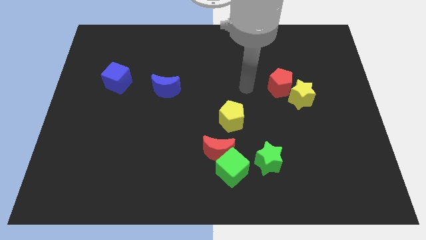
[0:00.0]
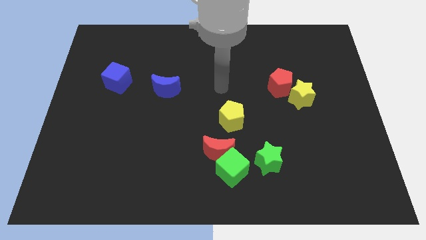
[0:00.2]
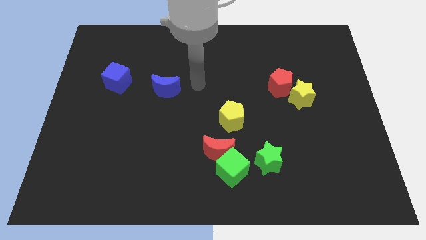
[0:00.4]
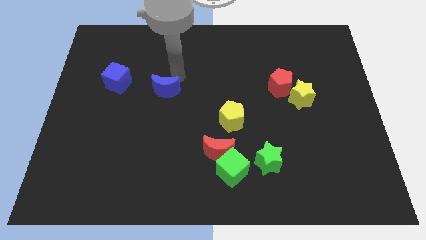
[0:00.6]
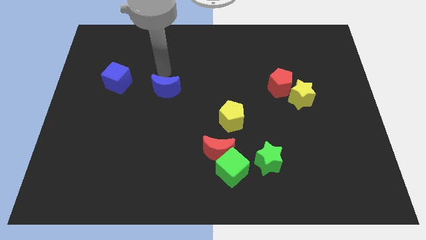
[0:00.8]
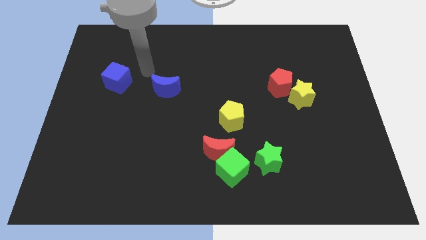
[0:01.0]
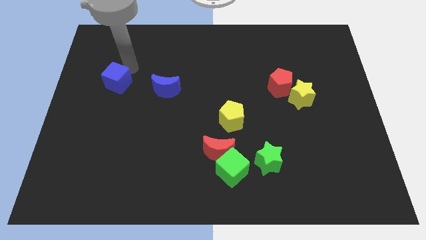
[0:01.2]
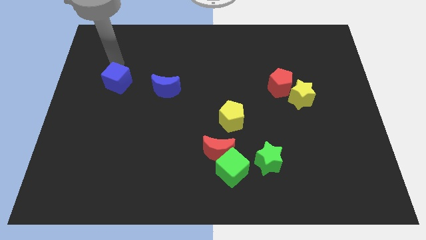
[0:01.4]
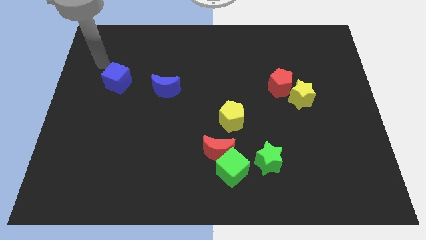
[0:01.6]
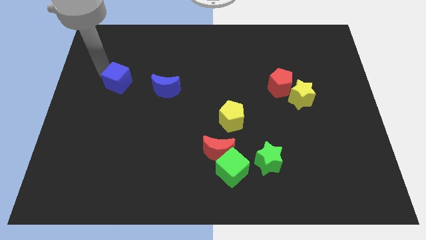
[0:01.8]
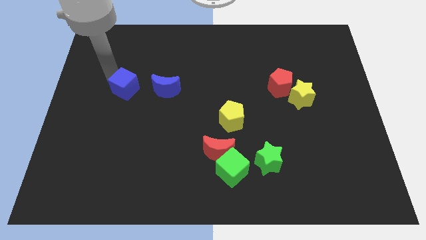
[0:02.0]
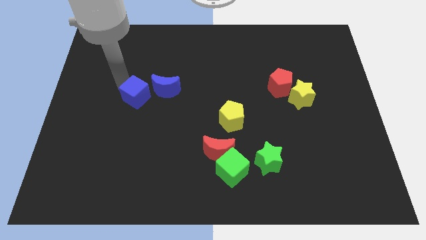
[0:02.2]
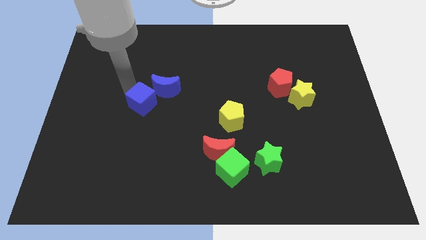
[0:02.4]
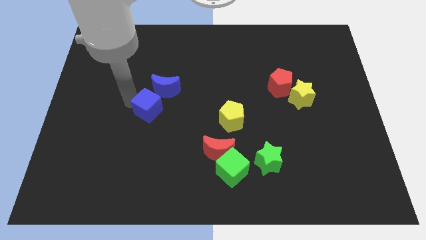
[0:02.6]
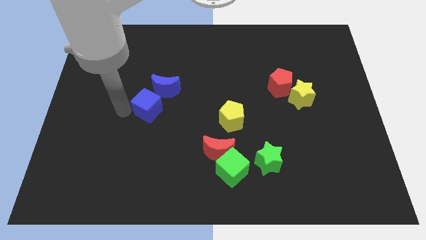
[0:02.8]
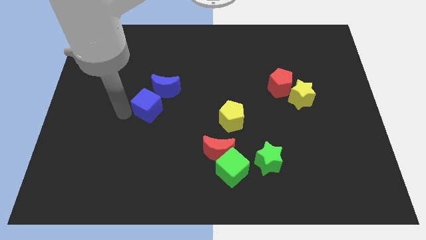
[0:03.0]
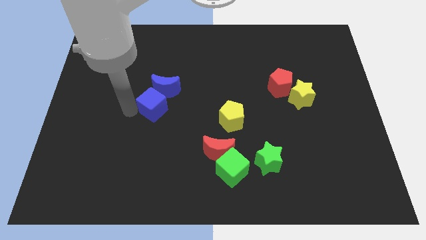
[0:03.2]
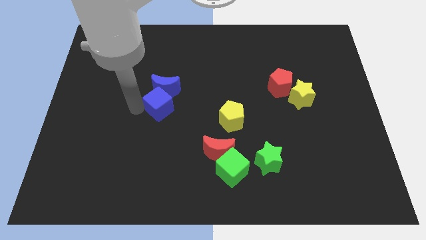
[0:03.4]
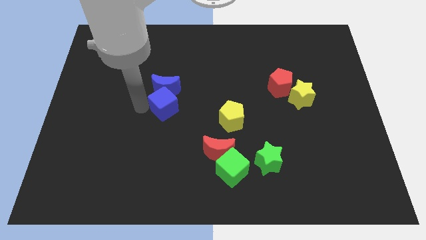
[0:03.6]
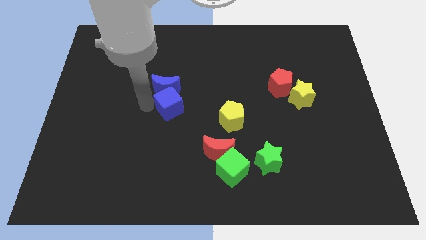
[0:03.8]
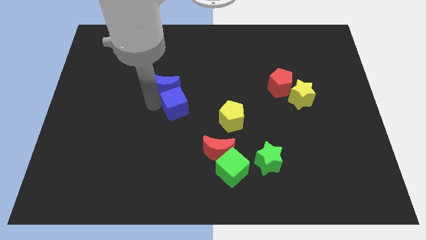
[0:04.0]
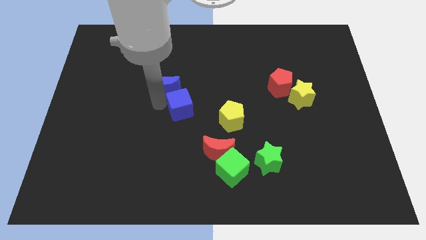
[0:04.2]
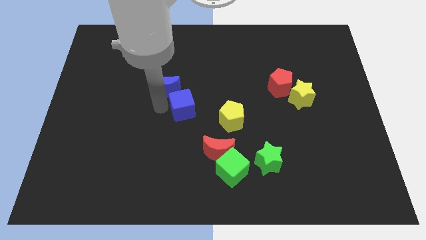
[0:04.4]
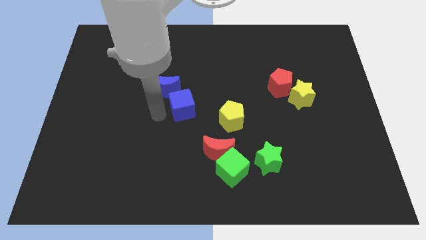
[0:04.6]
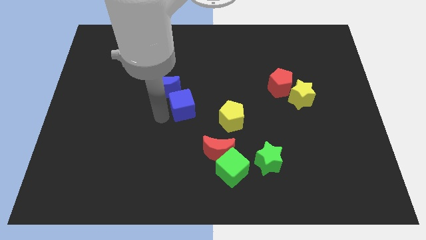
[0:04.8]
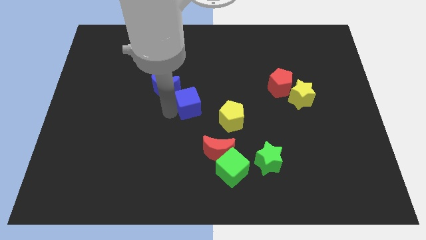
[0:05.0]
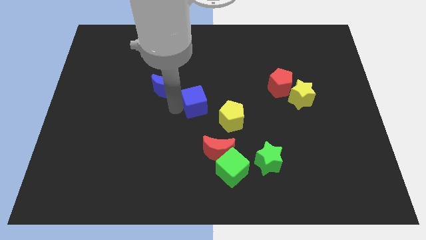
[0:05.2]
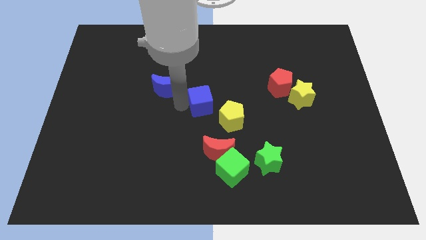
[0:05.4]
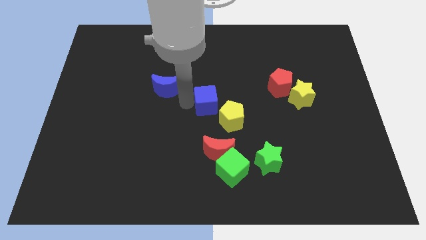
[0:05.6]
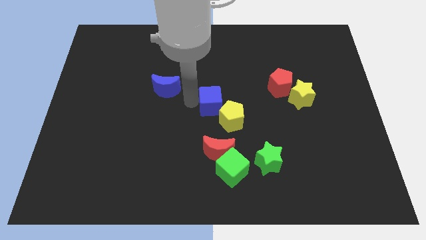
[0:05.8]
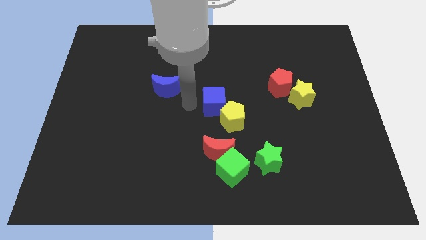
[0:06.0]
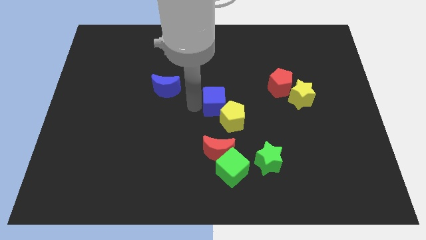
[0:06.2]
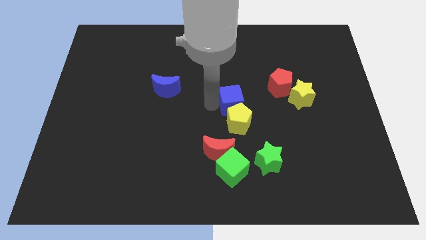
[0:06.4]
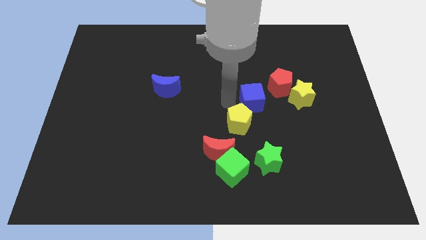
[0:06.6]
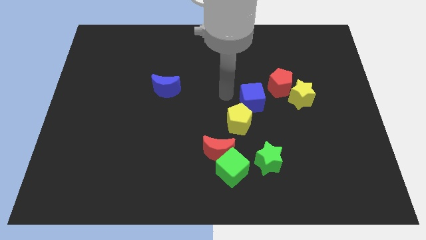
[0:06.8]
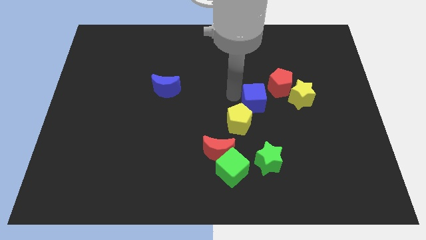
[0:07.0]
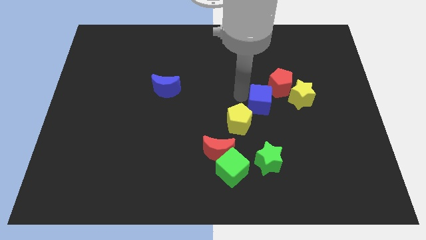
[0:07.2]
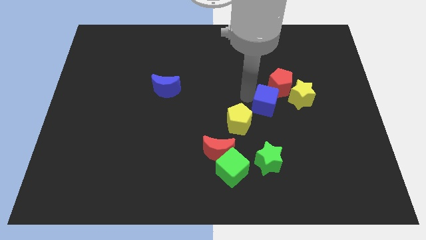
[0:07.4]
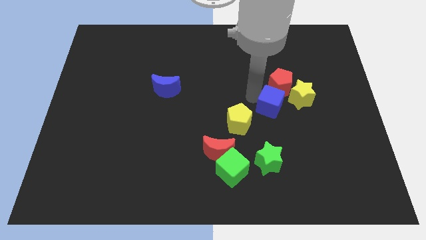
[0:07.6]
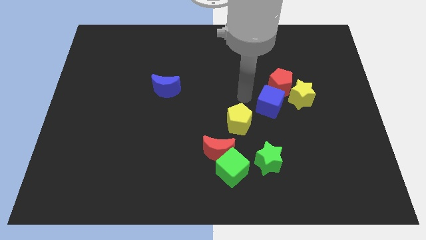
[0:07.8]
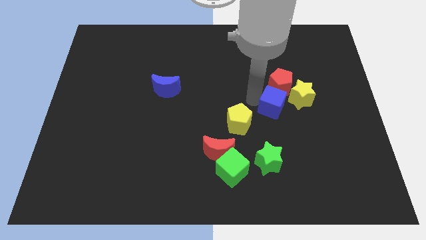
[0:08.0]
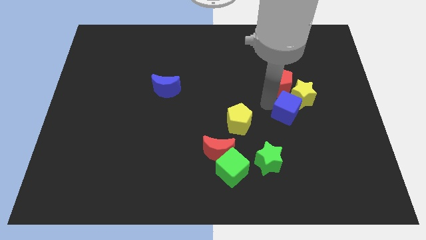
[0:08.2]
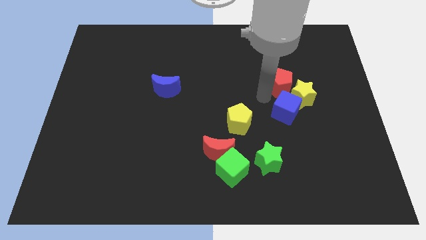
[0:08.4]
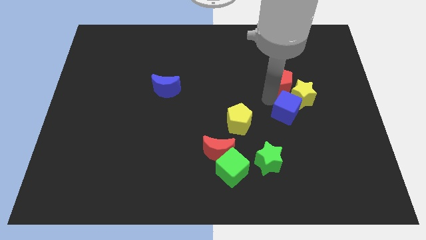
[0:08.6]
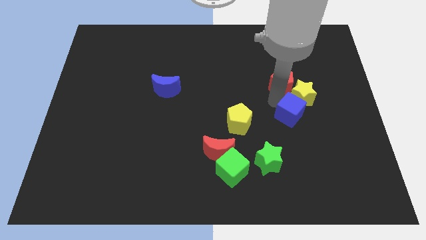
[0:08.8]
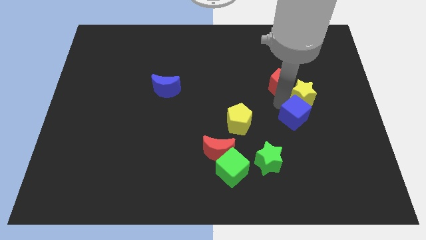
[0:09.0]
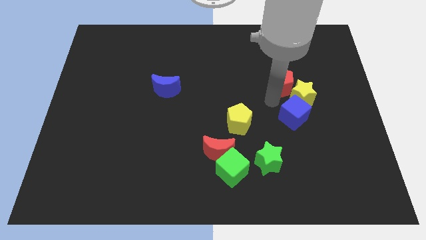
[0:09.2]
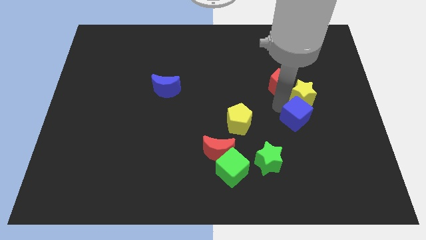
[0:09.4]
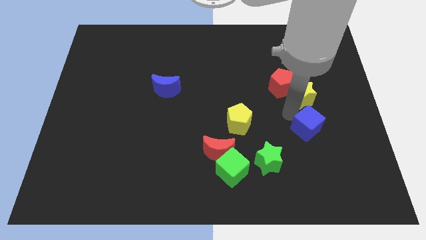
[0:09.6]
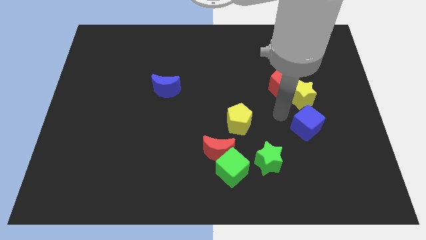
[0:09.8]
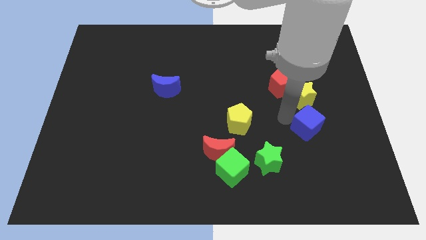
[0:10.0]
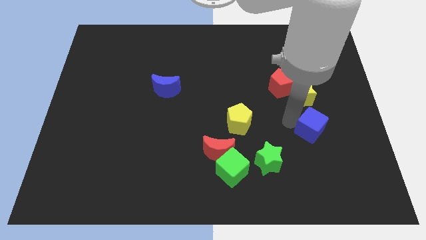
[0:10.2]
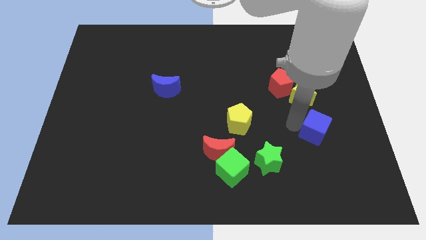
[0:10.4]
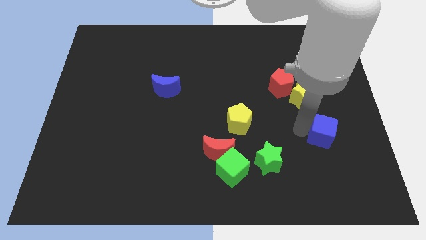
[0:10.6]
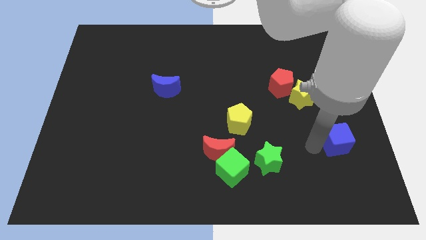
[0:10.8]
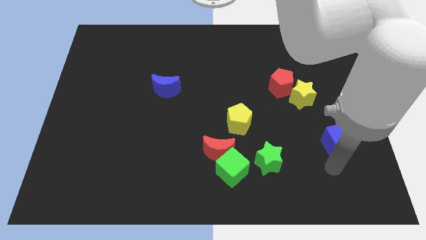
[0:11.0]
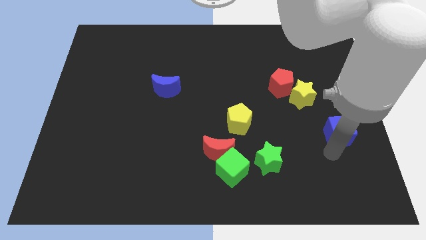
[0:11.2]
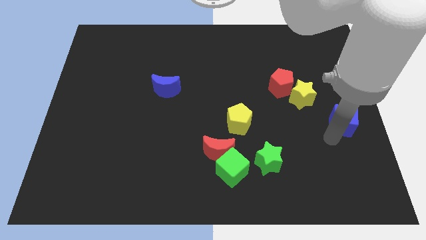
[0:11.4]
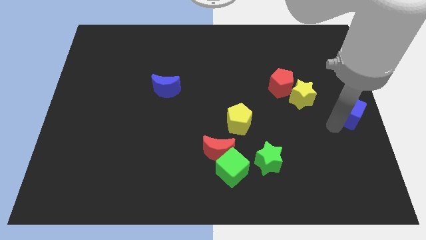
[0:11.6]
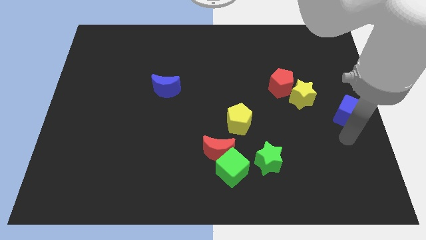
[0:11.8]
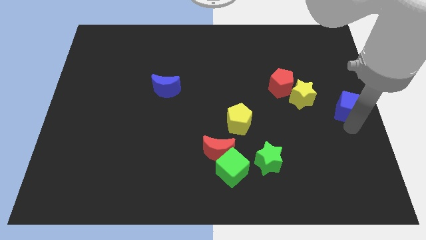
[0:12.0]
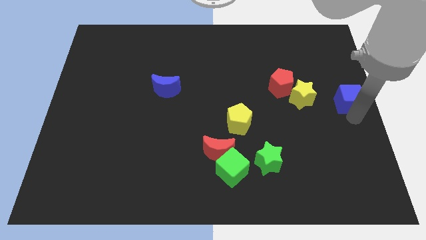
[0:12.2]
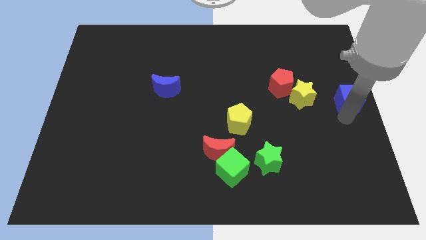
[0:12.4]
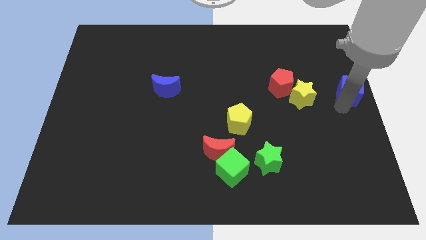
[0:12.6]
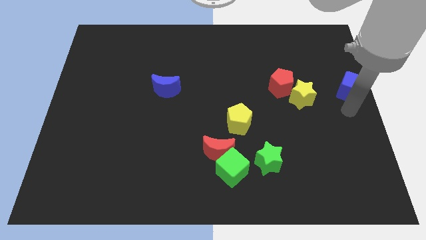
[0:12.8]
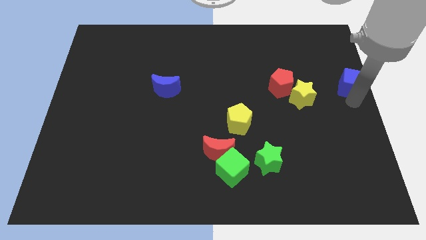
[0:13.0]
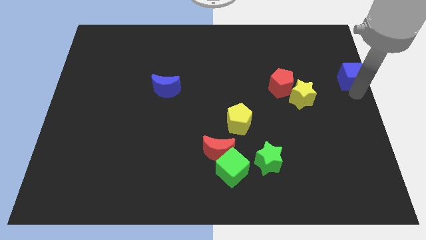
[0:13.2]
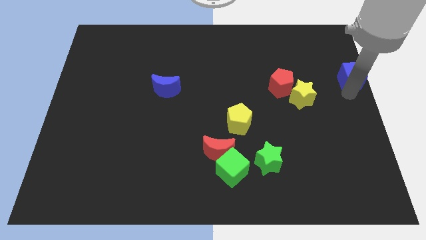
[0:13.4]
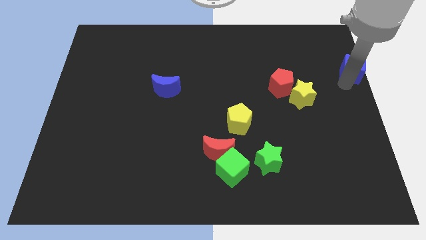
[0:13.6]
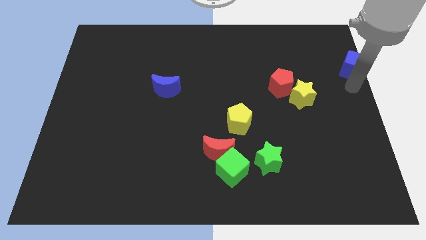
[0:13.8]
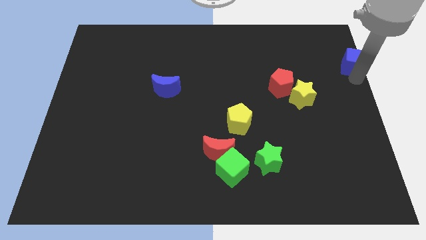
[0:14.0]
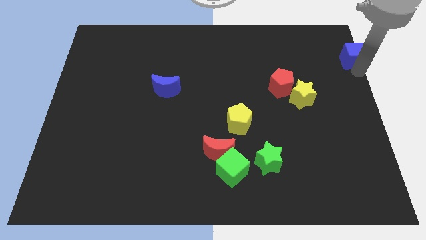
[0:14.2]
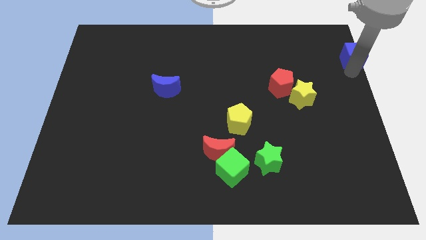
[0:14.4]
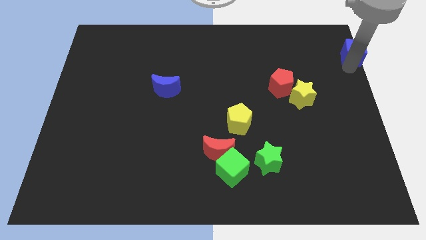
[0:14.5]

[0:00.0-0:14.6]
move the blue cube to the upper right corner
